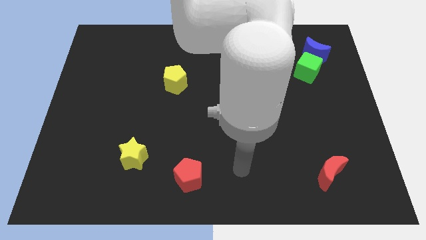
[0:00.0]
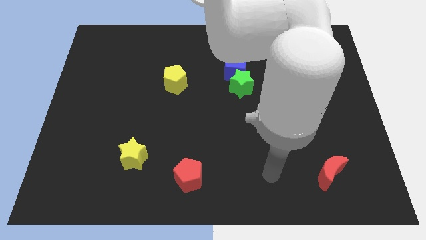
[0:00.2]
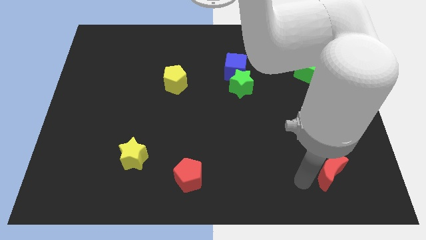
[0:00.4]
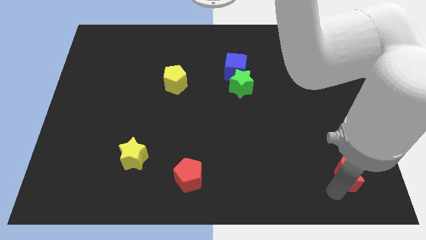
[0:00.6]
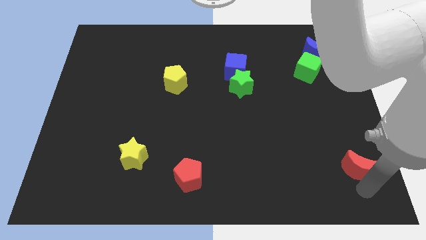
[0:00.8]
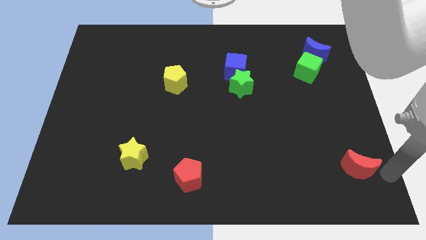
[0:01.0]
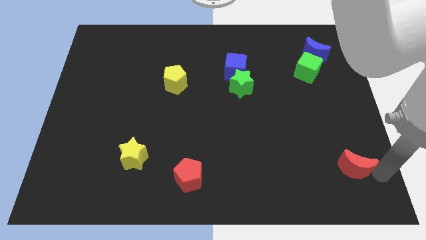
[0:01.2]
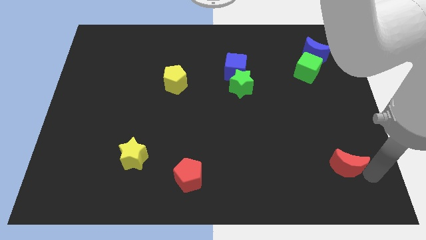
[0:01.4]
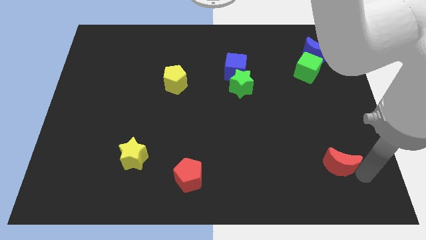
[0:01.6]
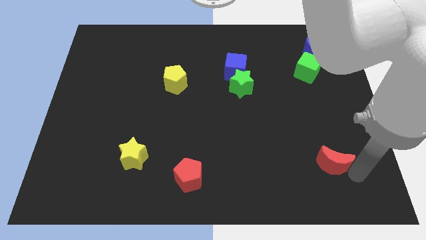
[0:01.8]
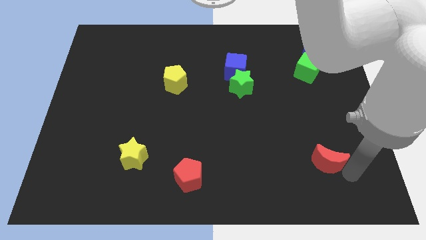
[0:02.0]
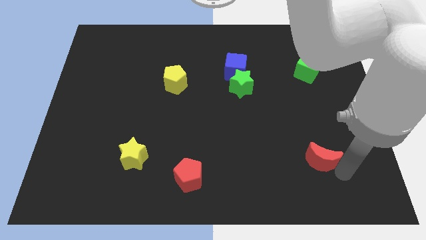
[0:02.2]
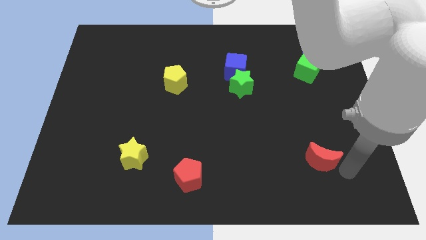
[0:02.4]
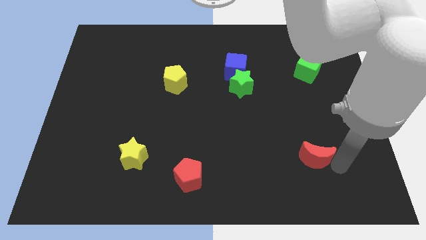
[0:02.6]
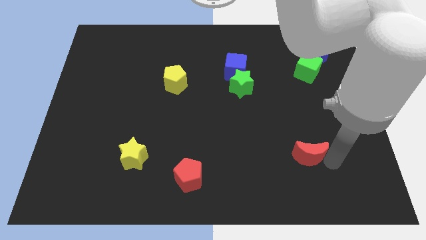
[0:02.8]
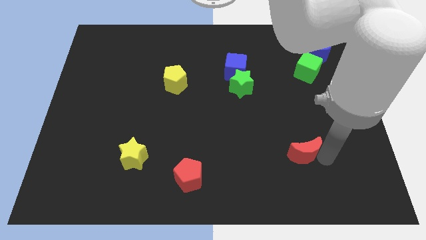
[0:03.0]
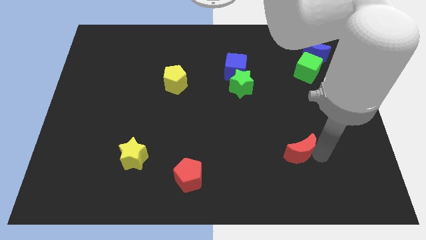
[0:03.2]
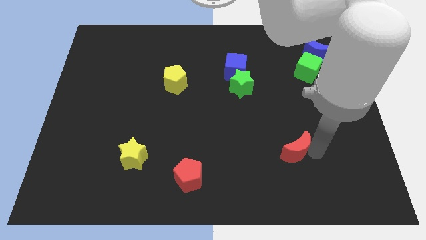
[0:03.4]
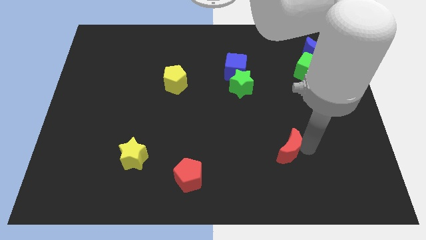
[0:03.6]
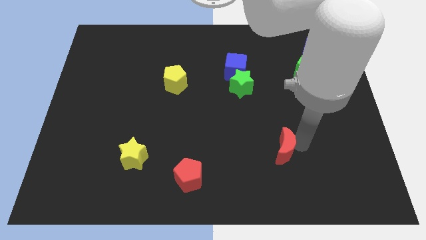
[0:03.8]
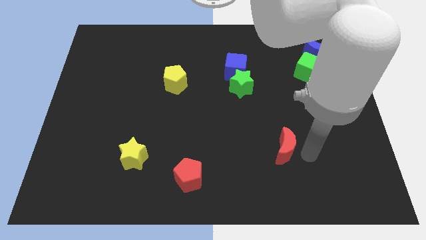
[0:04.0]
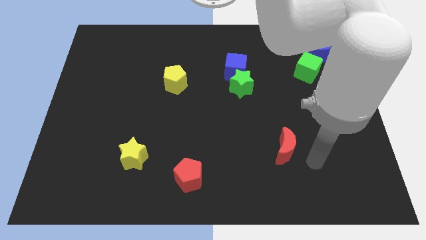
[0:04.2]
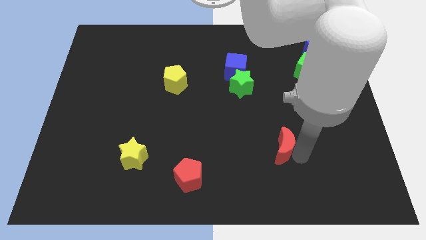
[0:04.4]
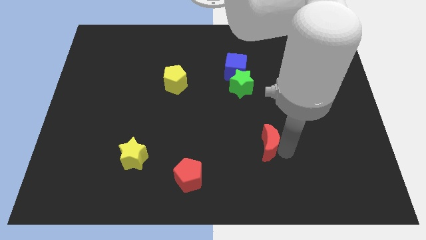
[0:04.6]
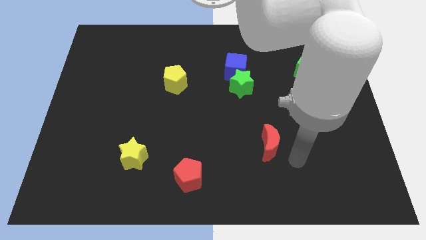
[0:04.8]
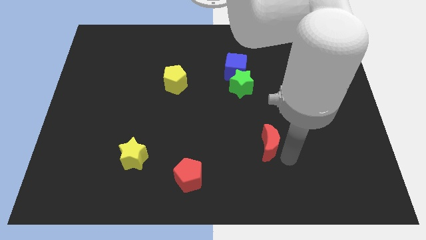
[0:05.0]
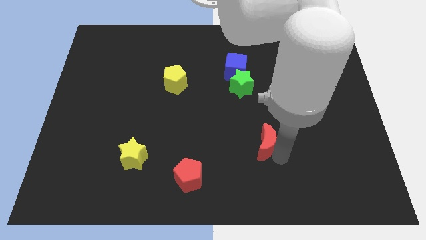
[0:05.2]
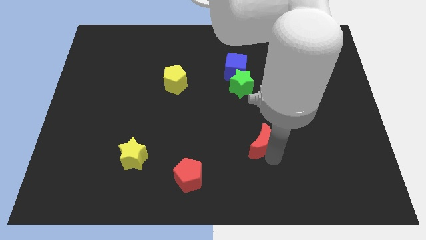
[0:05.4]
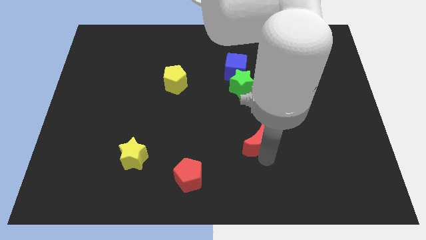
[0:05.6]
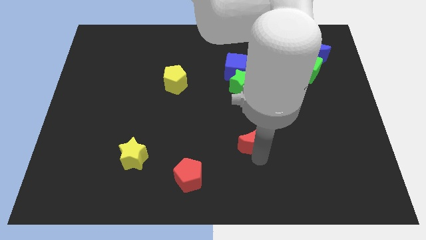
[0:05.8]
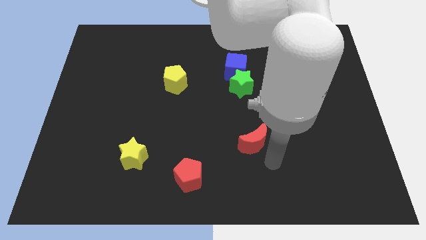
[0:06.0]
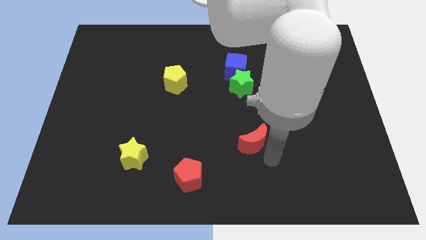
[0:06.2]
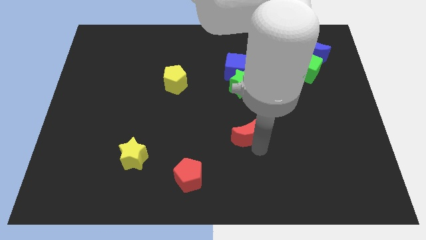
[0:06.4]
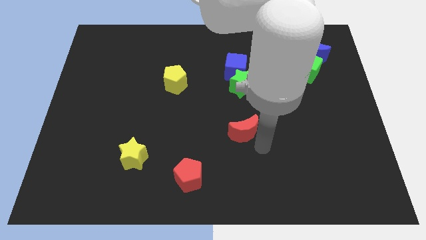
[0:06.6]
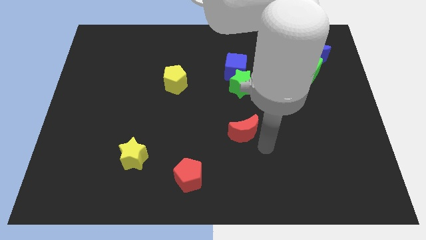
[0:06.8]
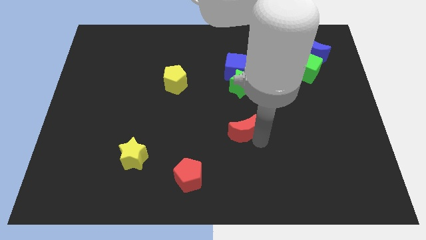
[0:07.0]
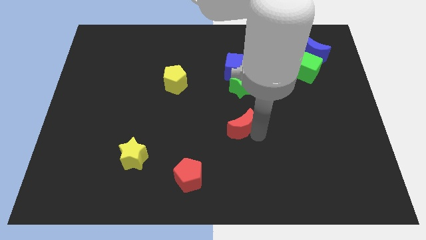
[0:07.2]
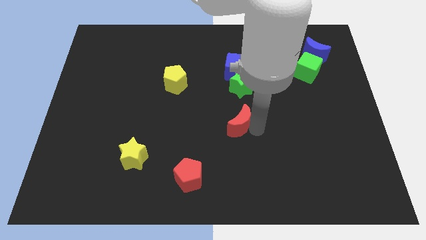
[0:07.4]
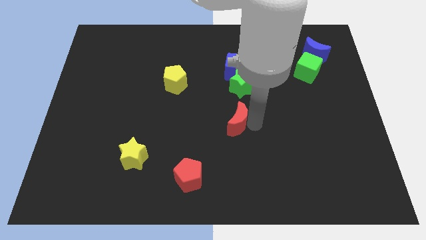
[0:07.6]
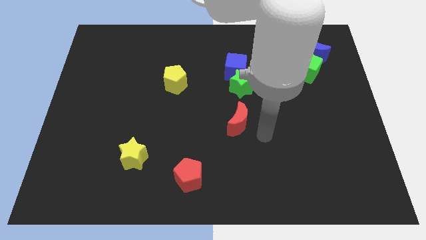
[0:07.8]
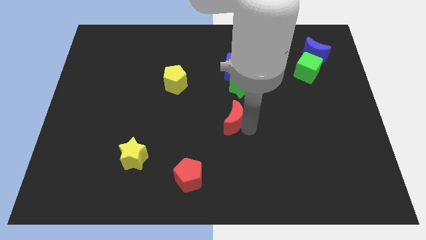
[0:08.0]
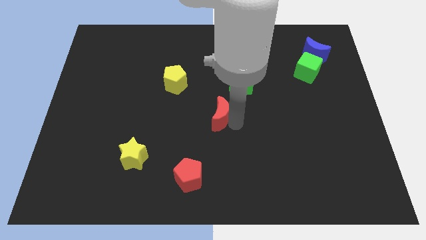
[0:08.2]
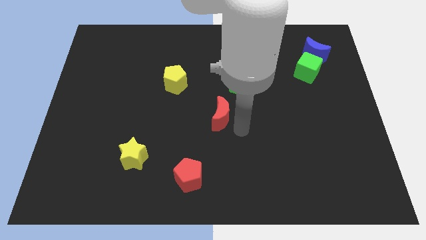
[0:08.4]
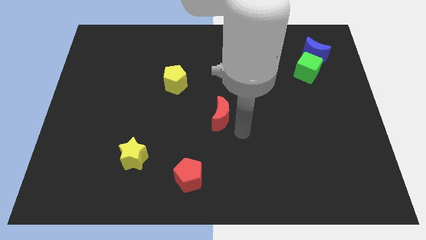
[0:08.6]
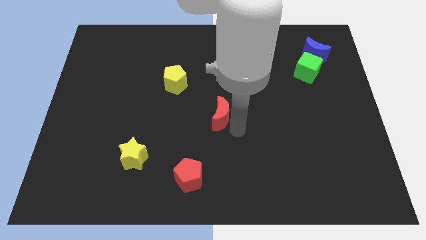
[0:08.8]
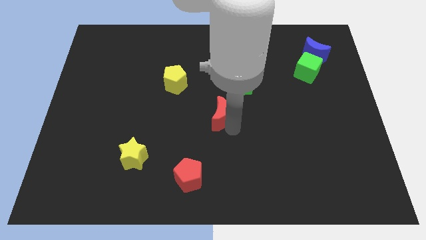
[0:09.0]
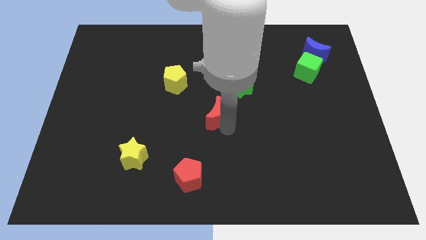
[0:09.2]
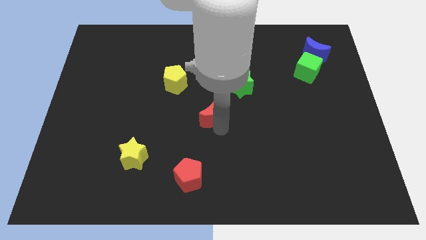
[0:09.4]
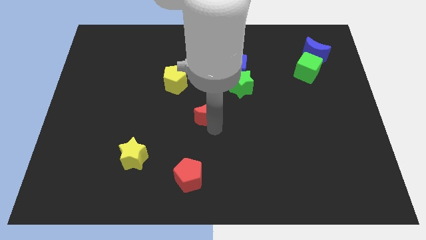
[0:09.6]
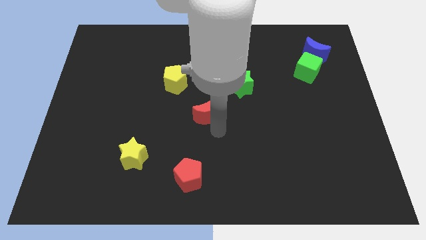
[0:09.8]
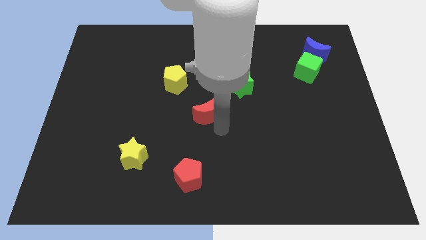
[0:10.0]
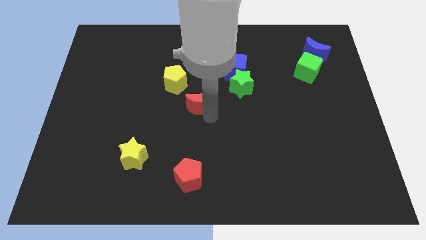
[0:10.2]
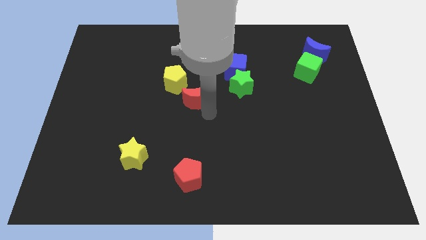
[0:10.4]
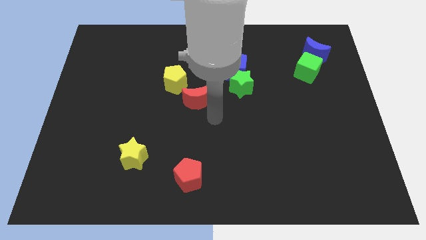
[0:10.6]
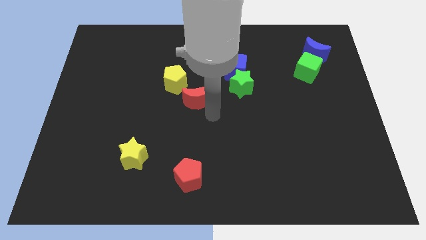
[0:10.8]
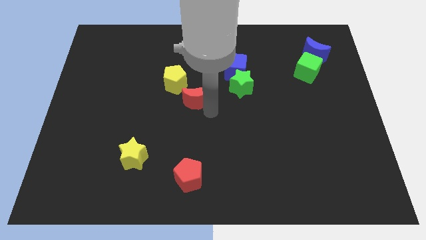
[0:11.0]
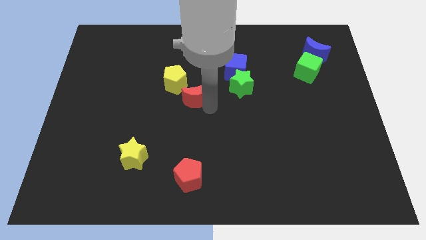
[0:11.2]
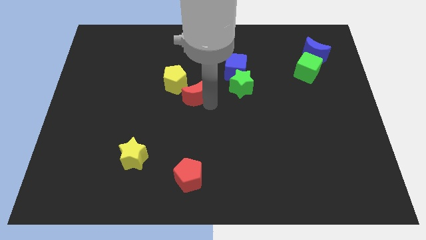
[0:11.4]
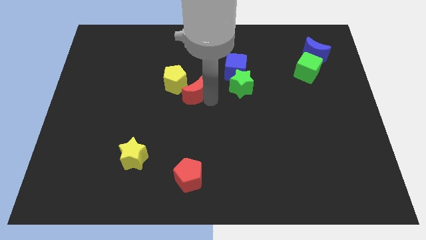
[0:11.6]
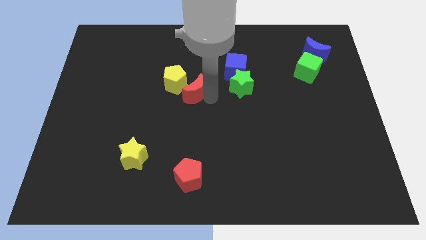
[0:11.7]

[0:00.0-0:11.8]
slide the red moon close to the yellow pentagon

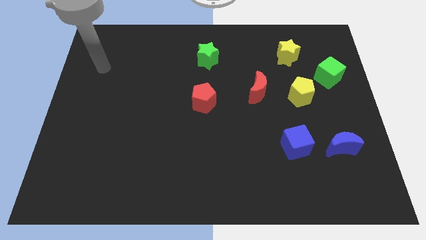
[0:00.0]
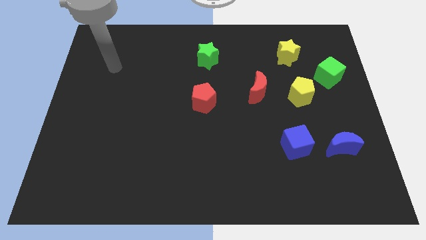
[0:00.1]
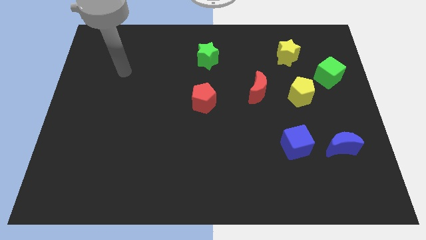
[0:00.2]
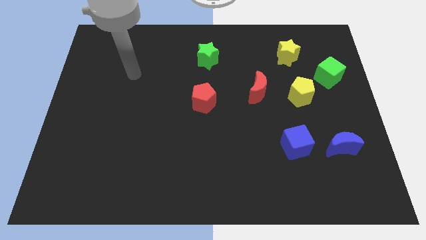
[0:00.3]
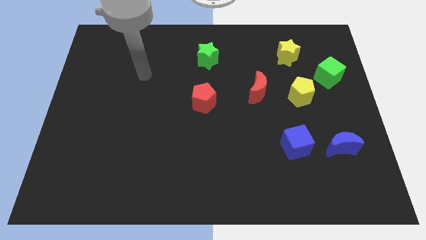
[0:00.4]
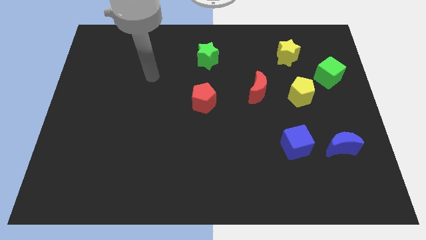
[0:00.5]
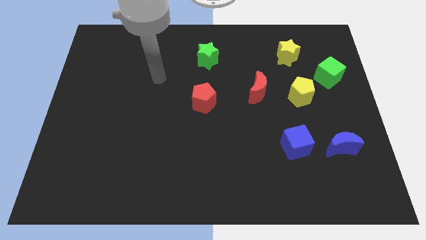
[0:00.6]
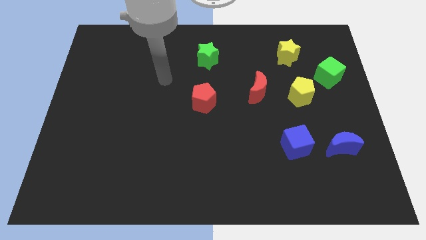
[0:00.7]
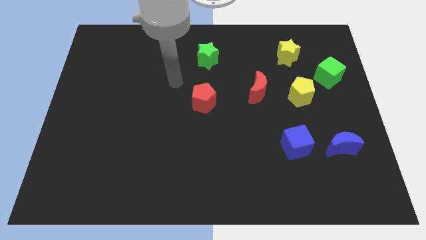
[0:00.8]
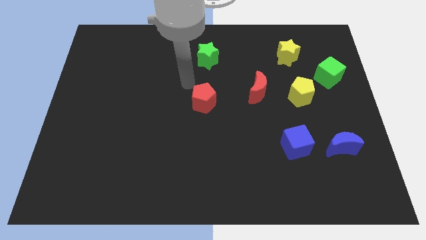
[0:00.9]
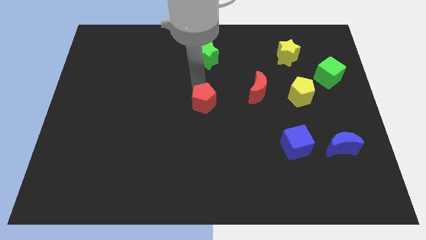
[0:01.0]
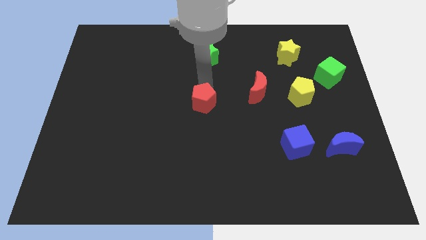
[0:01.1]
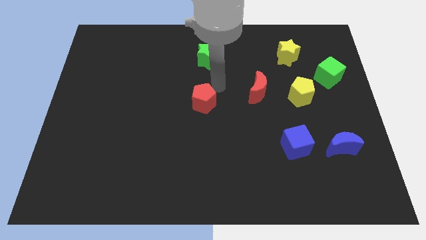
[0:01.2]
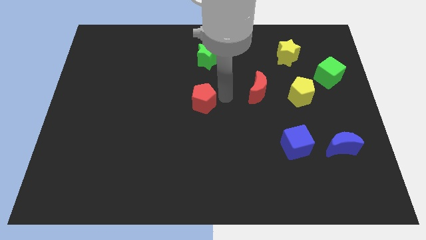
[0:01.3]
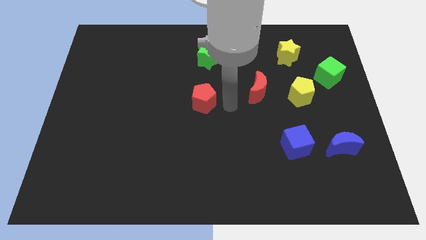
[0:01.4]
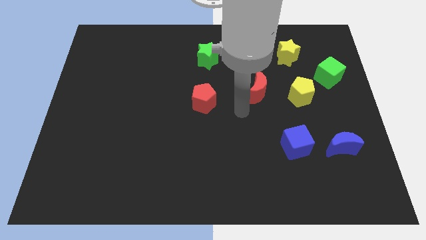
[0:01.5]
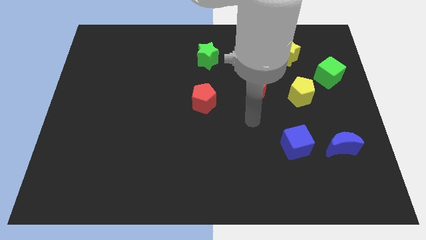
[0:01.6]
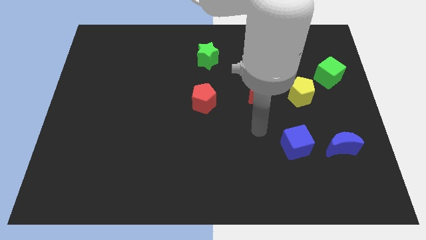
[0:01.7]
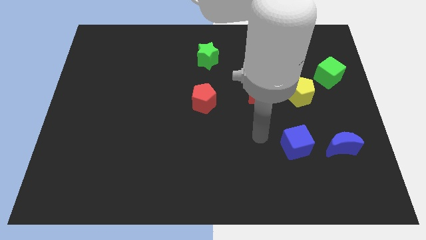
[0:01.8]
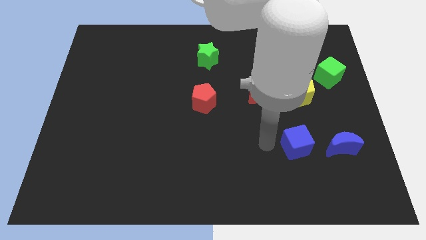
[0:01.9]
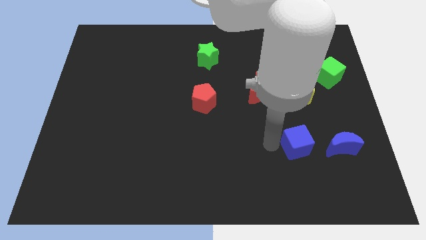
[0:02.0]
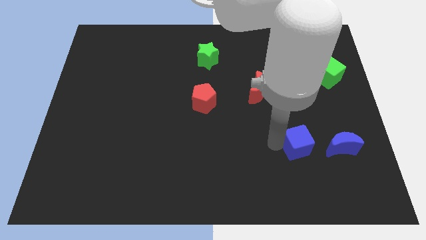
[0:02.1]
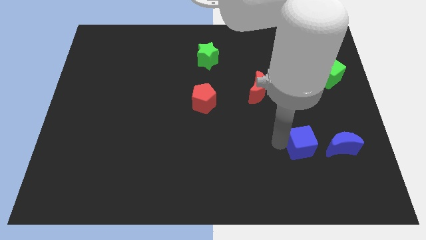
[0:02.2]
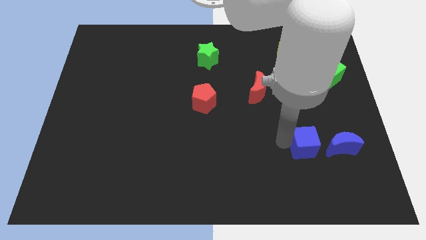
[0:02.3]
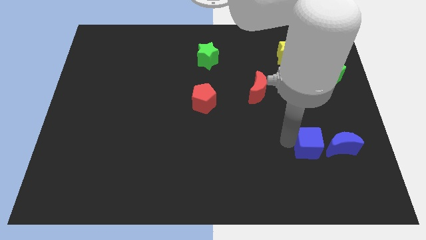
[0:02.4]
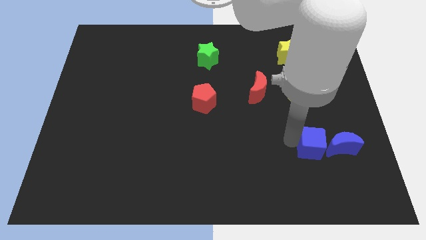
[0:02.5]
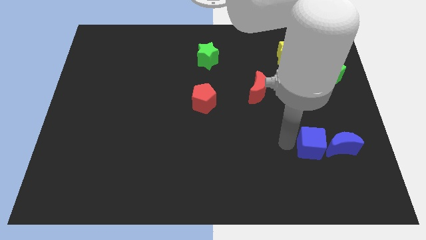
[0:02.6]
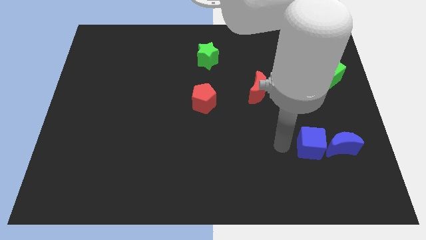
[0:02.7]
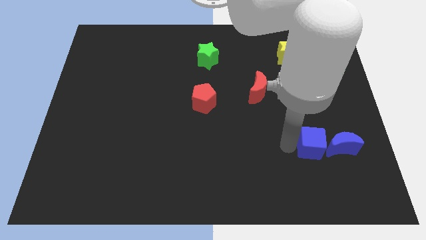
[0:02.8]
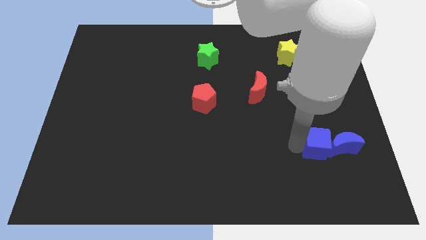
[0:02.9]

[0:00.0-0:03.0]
move the blue cube towards the blue moon
